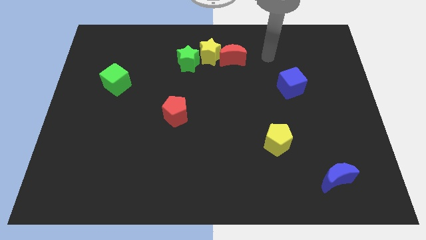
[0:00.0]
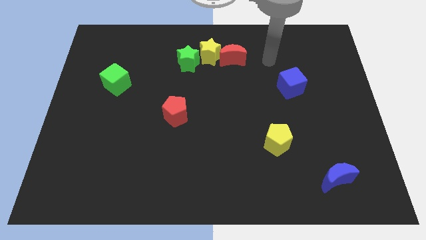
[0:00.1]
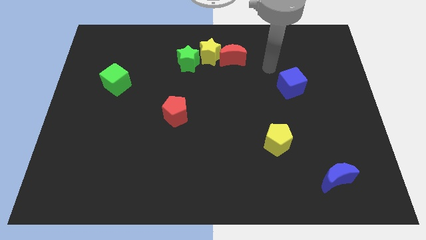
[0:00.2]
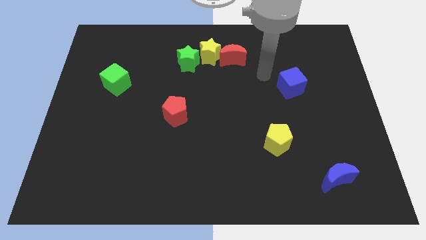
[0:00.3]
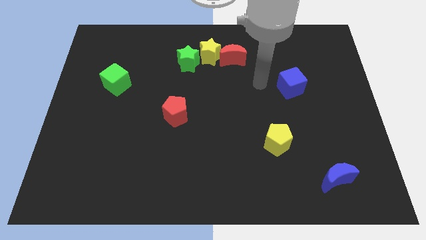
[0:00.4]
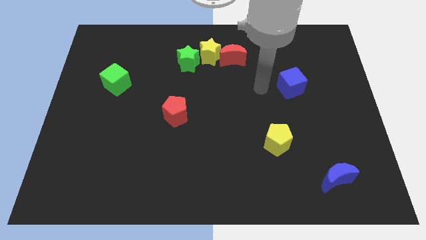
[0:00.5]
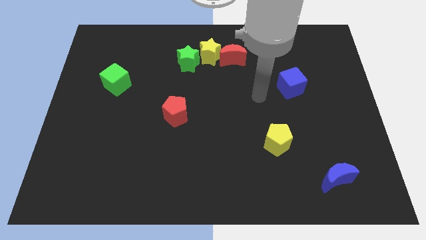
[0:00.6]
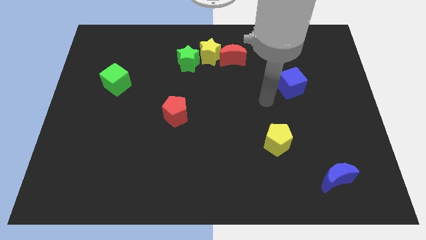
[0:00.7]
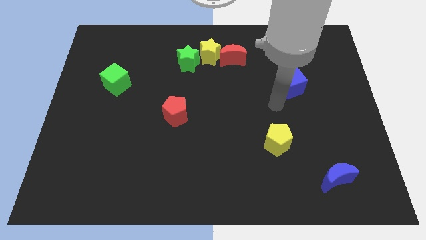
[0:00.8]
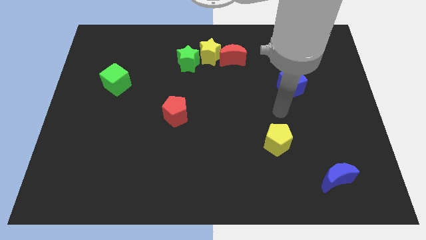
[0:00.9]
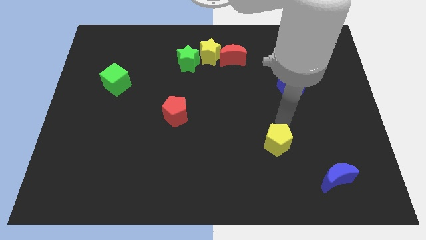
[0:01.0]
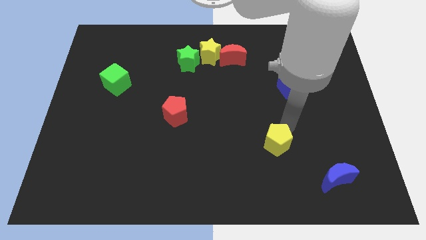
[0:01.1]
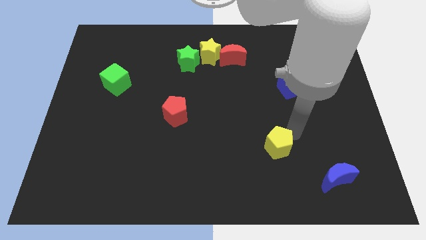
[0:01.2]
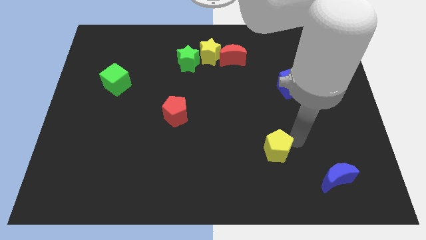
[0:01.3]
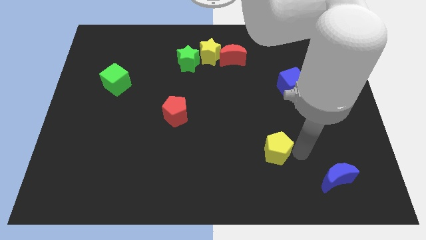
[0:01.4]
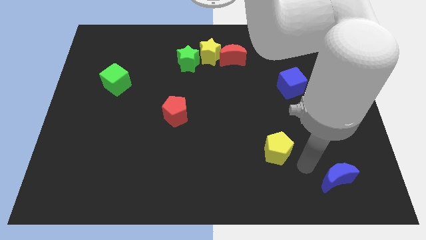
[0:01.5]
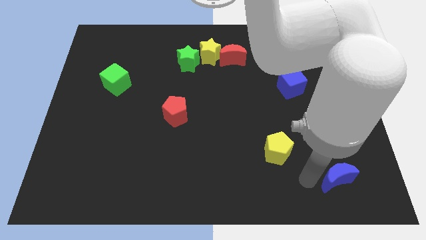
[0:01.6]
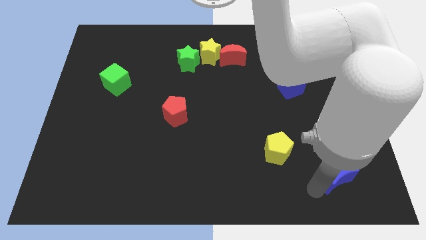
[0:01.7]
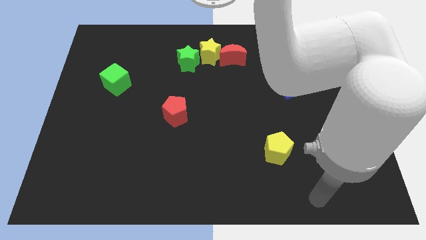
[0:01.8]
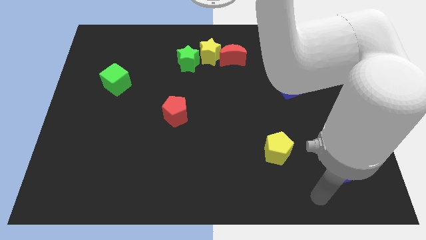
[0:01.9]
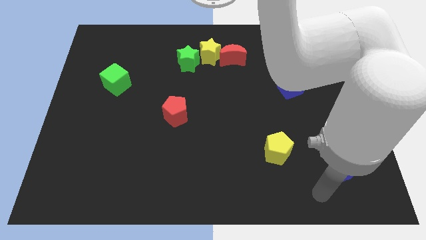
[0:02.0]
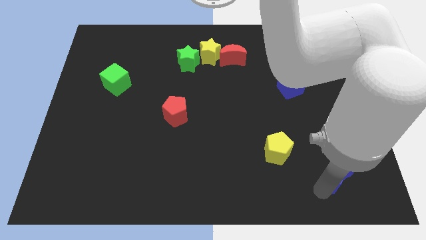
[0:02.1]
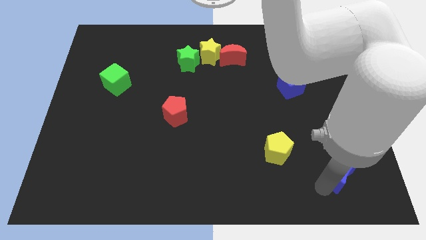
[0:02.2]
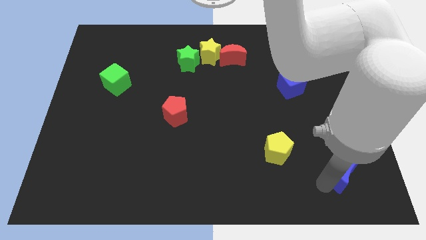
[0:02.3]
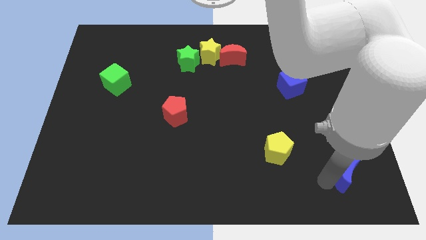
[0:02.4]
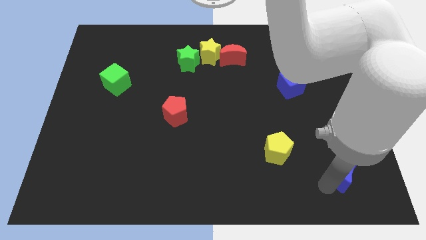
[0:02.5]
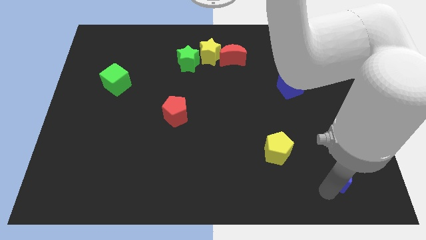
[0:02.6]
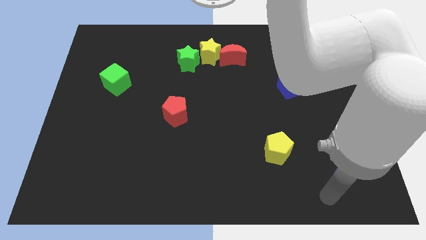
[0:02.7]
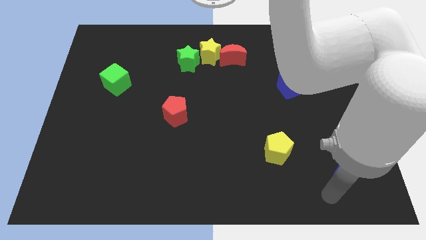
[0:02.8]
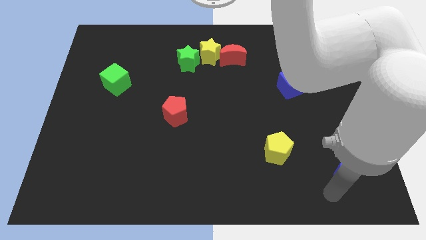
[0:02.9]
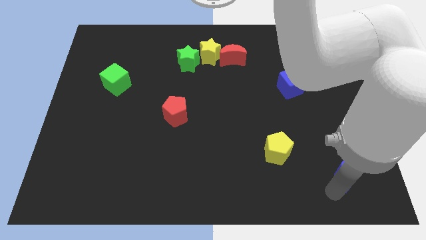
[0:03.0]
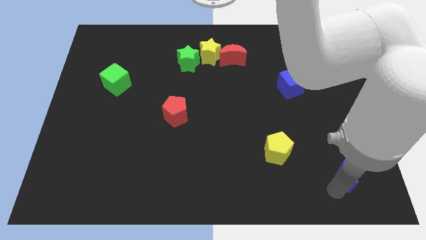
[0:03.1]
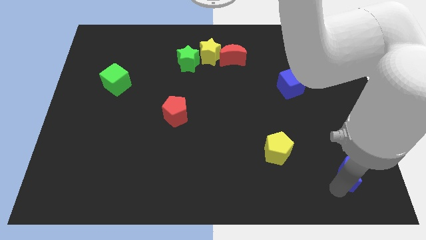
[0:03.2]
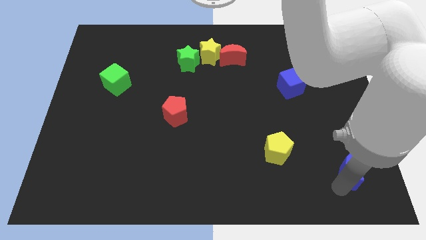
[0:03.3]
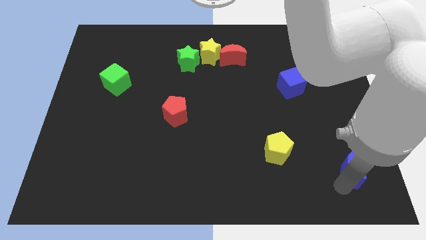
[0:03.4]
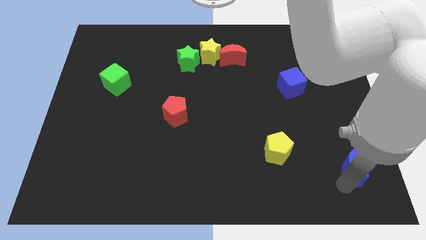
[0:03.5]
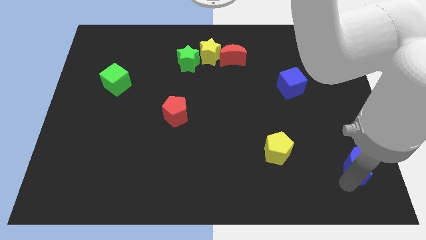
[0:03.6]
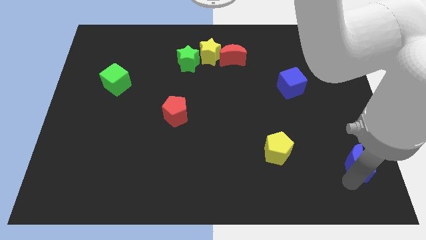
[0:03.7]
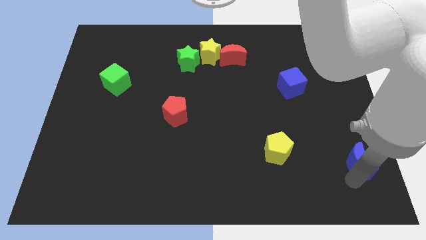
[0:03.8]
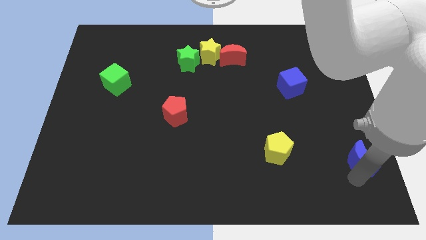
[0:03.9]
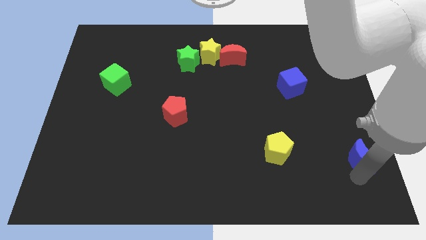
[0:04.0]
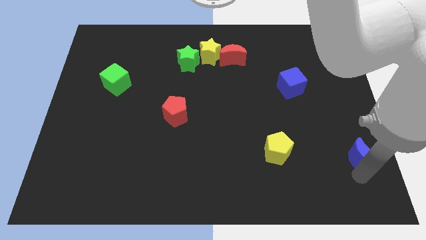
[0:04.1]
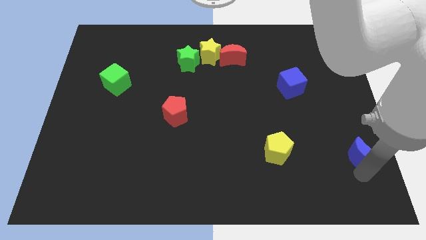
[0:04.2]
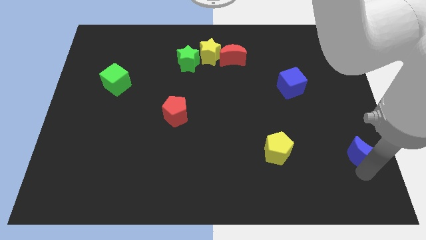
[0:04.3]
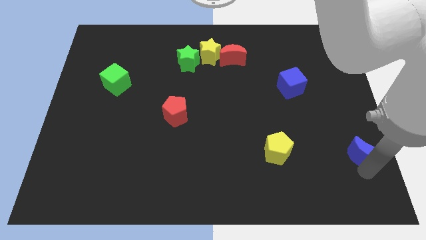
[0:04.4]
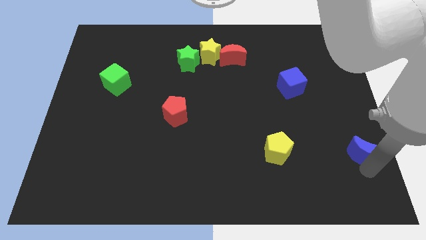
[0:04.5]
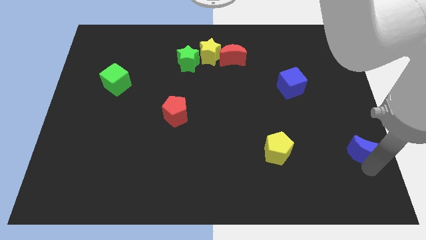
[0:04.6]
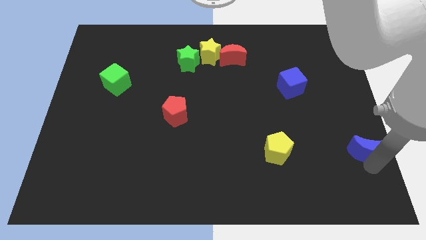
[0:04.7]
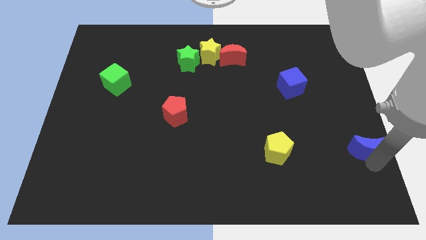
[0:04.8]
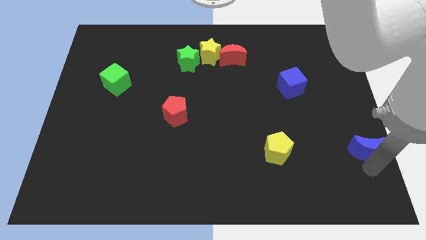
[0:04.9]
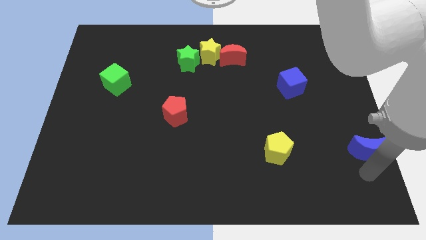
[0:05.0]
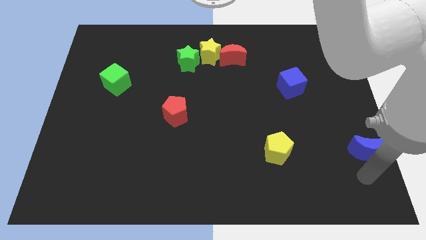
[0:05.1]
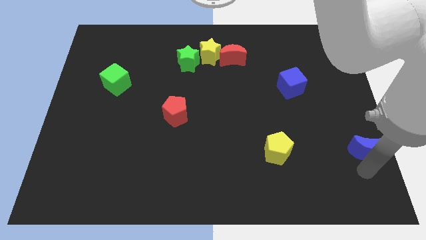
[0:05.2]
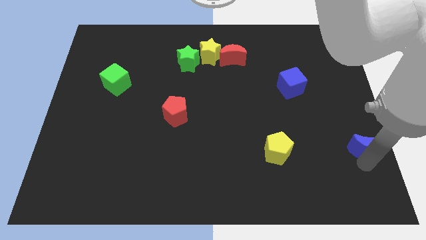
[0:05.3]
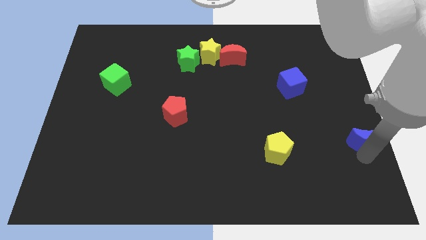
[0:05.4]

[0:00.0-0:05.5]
push the blue moon to the right side of the board

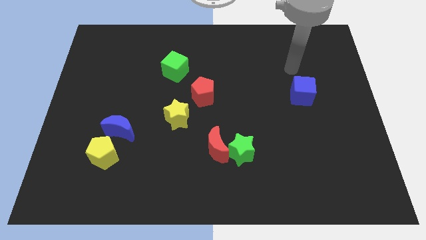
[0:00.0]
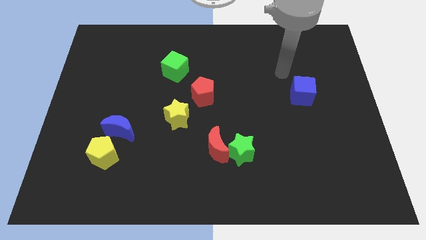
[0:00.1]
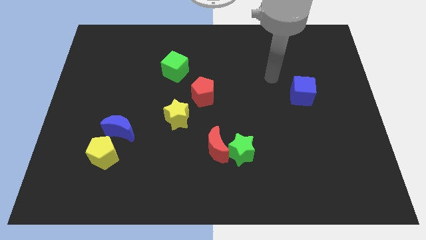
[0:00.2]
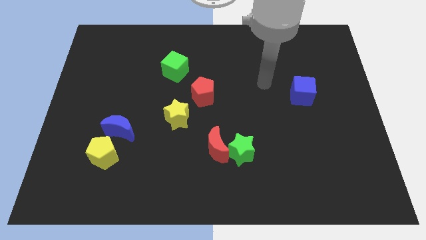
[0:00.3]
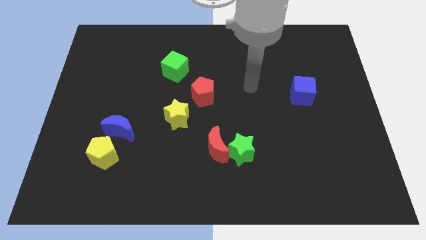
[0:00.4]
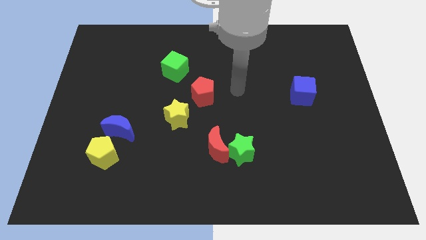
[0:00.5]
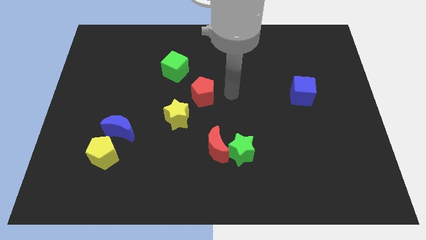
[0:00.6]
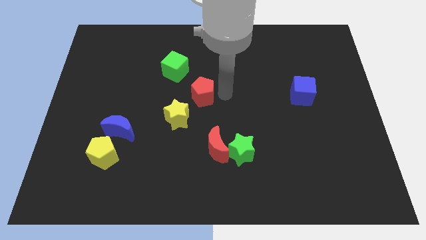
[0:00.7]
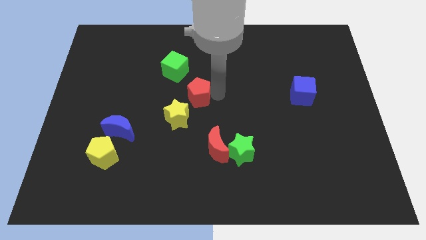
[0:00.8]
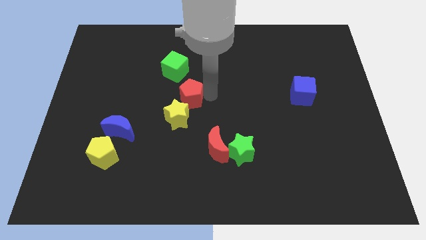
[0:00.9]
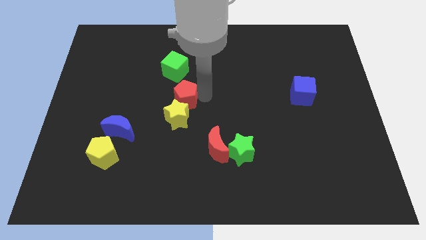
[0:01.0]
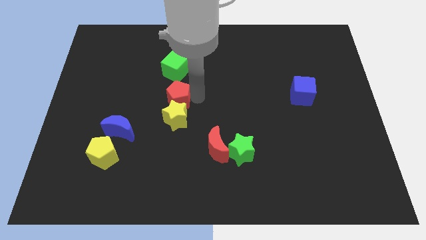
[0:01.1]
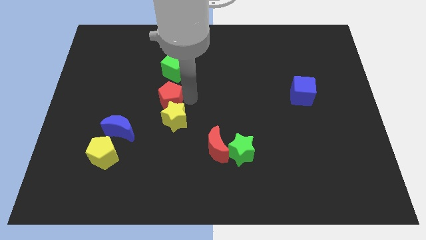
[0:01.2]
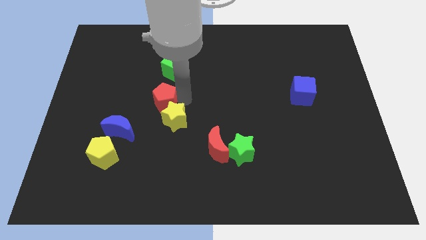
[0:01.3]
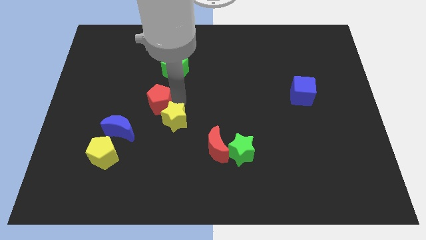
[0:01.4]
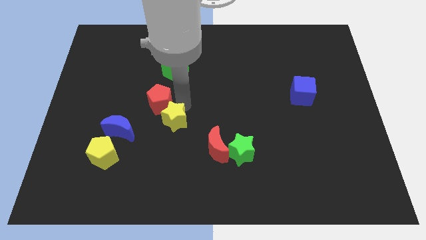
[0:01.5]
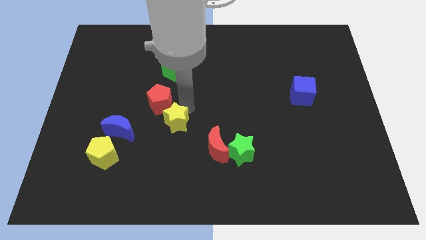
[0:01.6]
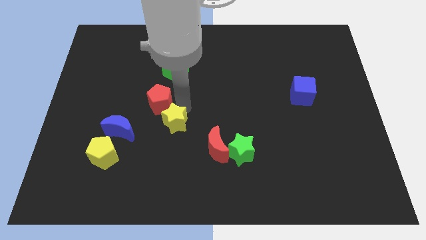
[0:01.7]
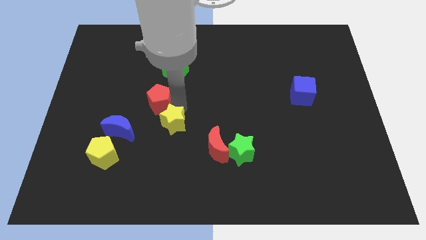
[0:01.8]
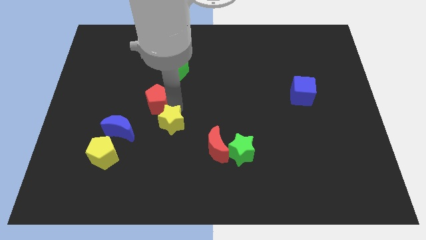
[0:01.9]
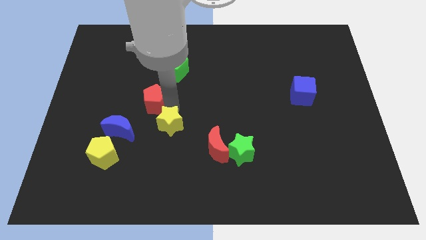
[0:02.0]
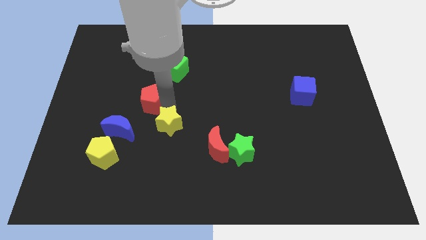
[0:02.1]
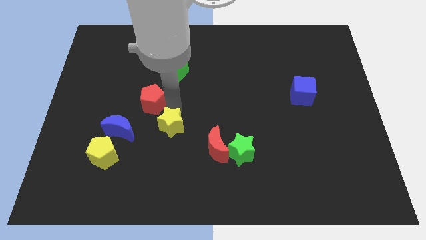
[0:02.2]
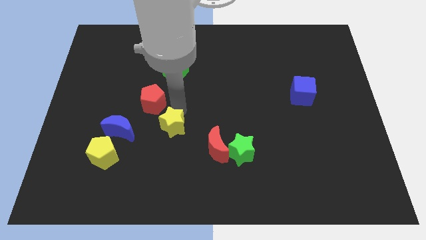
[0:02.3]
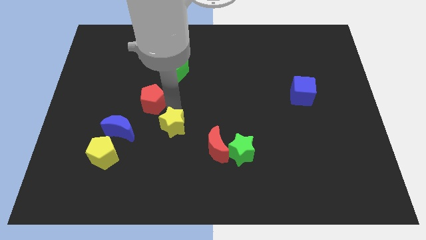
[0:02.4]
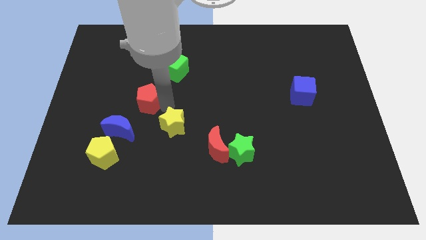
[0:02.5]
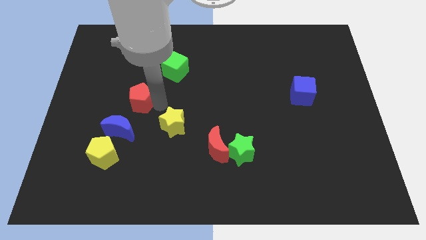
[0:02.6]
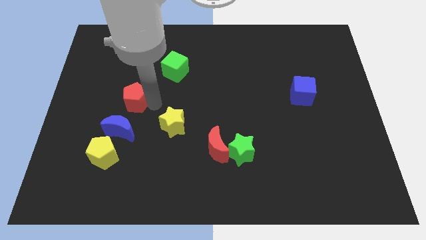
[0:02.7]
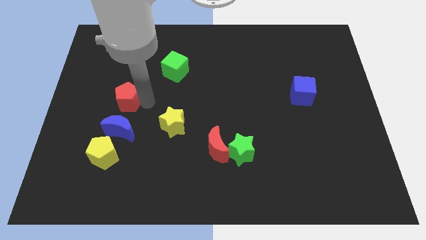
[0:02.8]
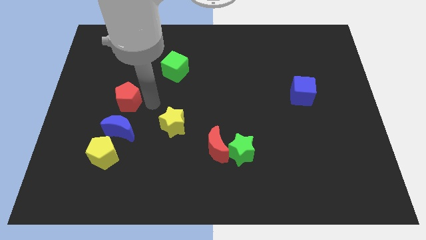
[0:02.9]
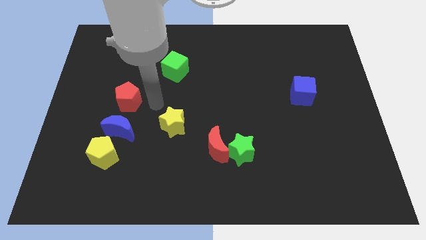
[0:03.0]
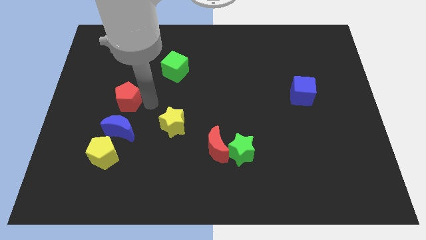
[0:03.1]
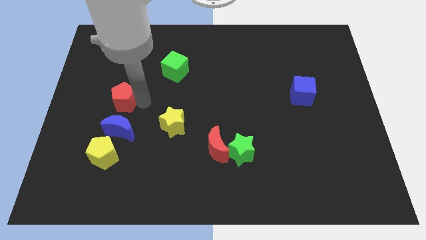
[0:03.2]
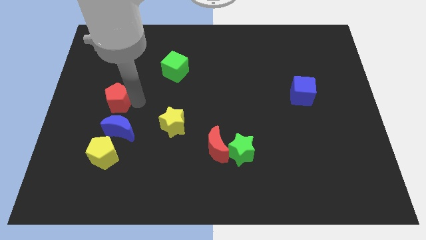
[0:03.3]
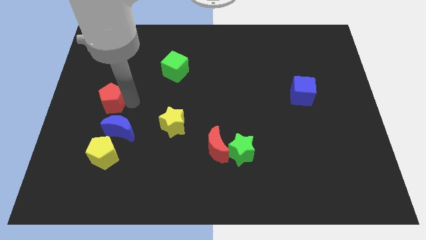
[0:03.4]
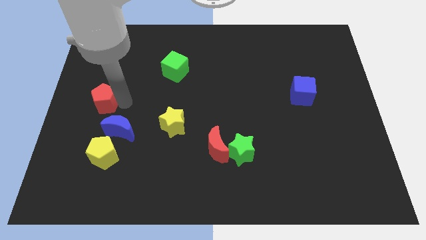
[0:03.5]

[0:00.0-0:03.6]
put the red pentagon to the left side
